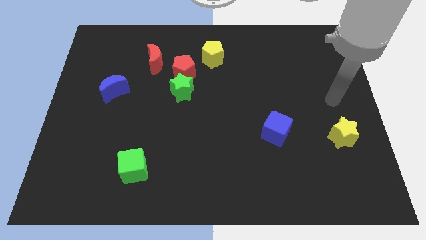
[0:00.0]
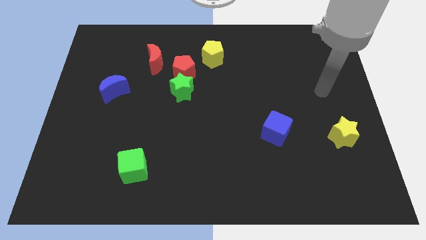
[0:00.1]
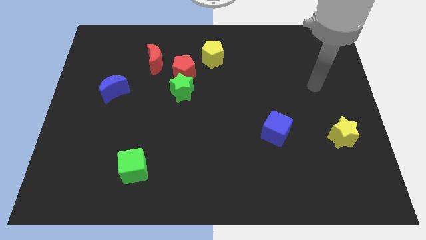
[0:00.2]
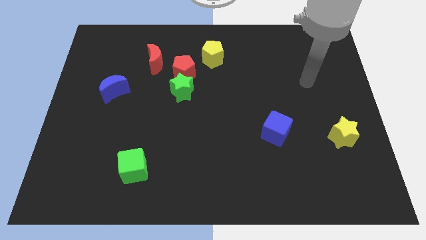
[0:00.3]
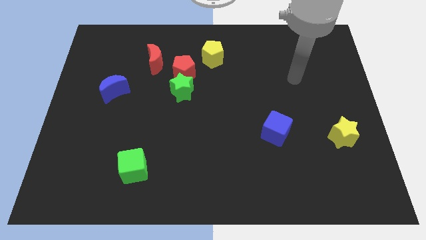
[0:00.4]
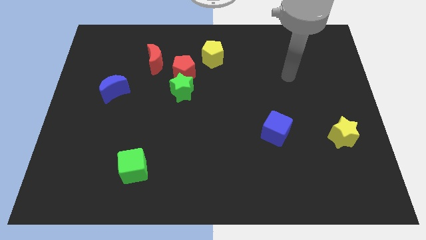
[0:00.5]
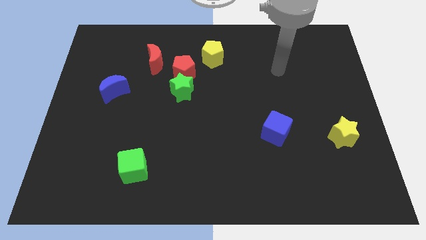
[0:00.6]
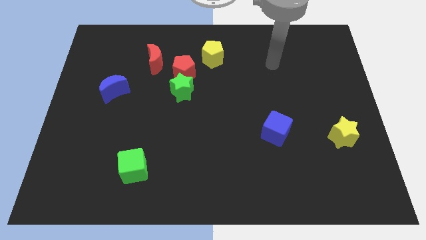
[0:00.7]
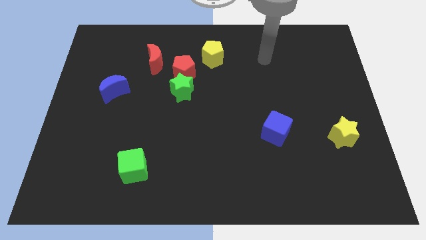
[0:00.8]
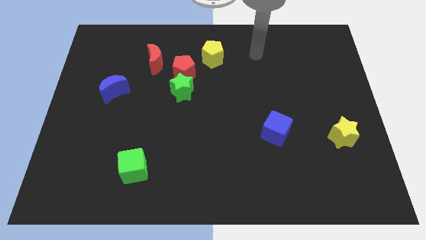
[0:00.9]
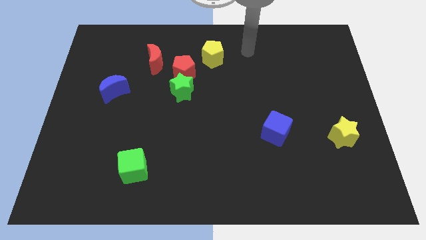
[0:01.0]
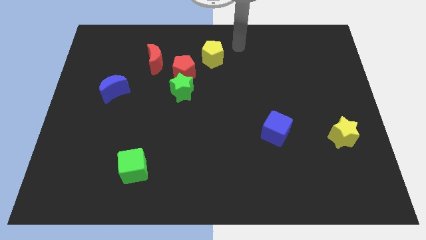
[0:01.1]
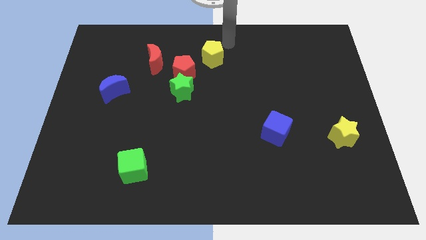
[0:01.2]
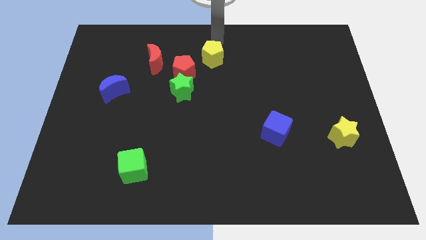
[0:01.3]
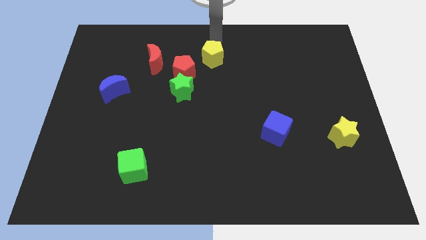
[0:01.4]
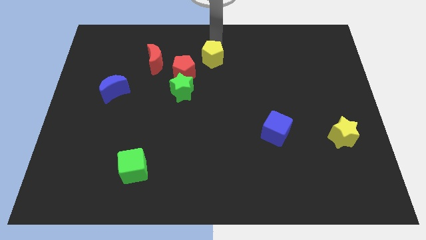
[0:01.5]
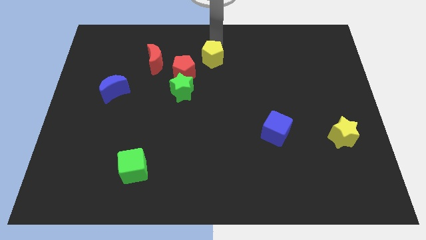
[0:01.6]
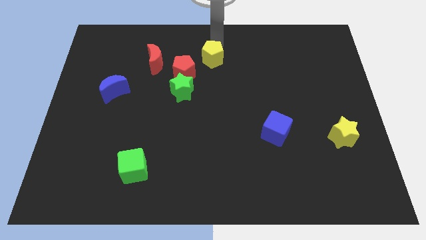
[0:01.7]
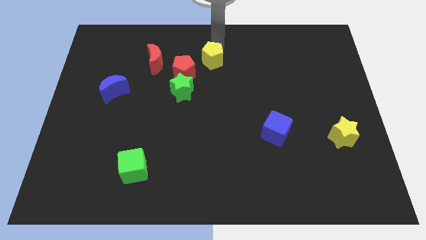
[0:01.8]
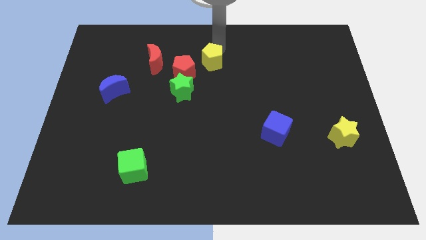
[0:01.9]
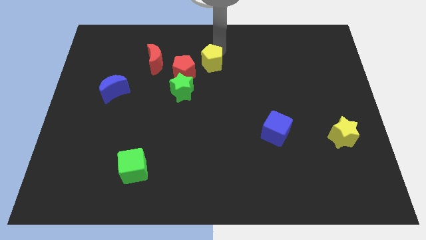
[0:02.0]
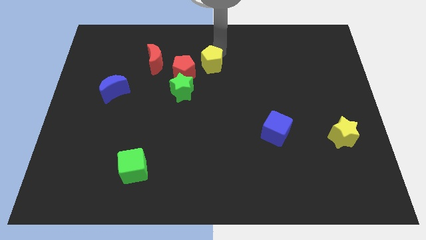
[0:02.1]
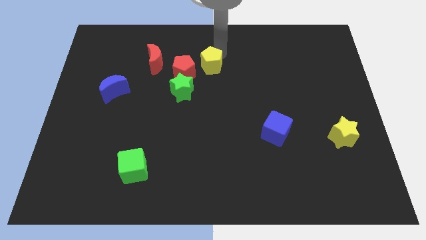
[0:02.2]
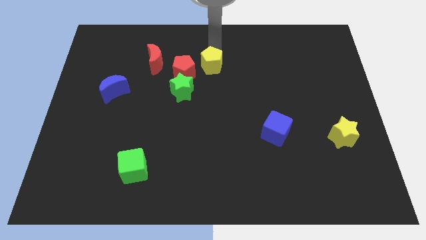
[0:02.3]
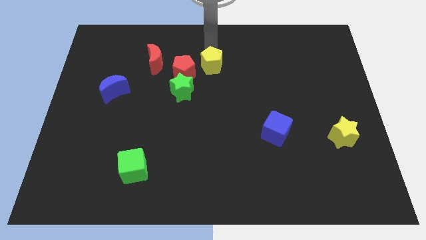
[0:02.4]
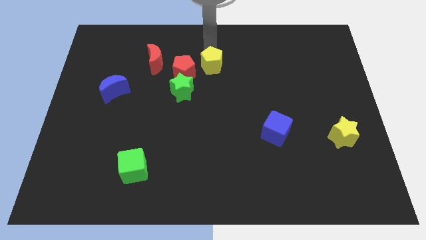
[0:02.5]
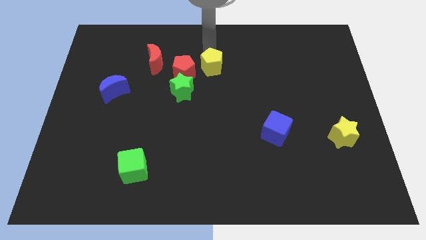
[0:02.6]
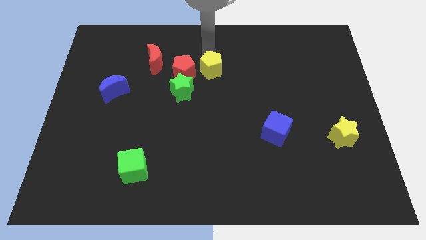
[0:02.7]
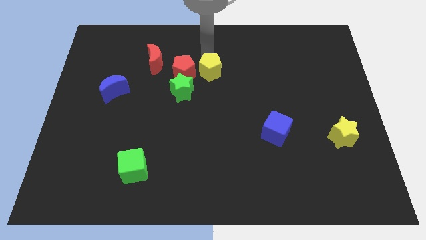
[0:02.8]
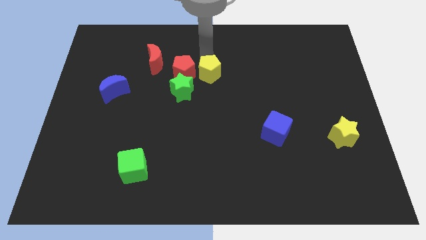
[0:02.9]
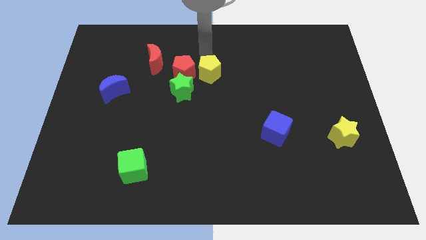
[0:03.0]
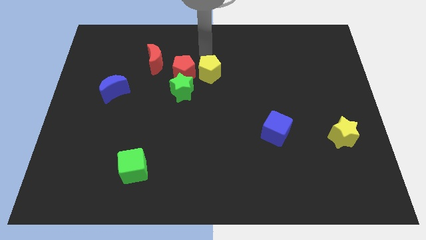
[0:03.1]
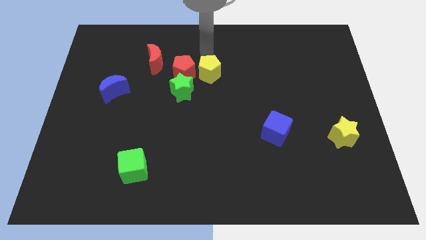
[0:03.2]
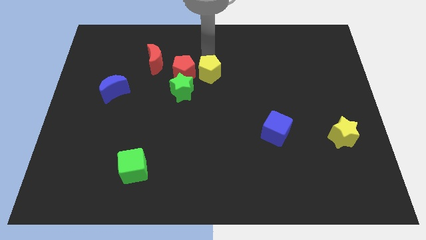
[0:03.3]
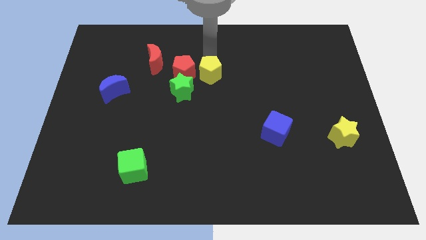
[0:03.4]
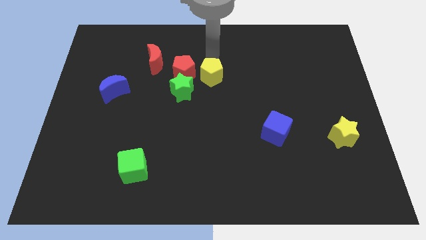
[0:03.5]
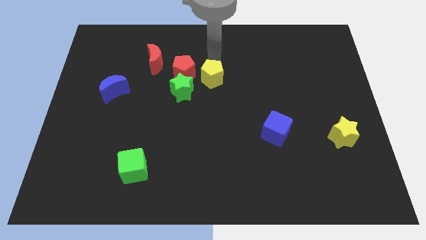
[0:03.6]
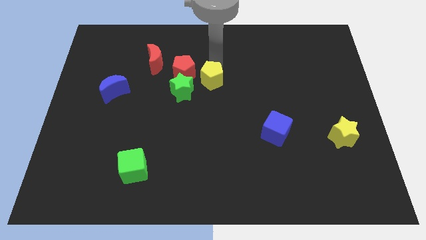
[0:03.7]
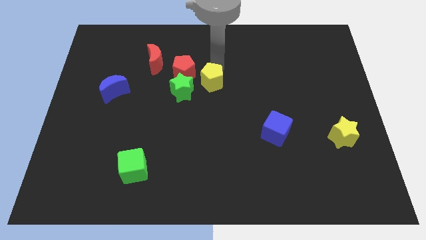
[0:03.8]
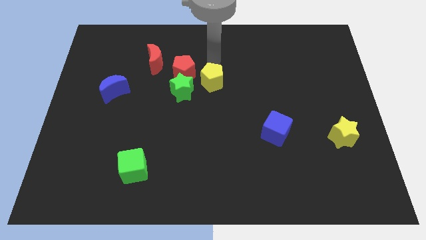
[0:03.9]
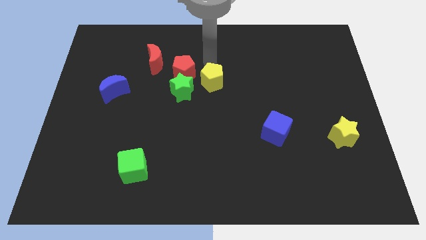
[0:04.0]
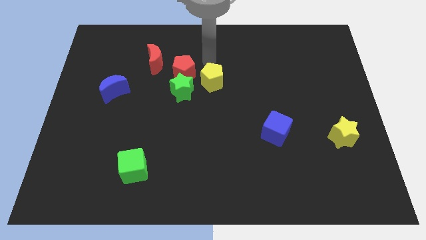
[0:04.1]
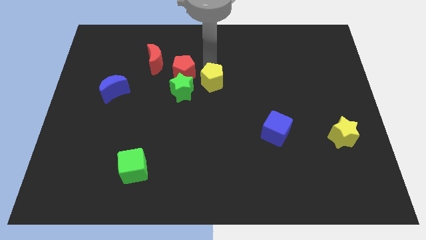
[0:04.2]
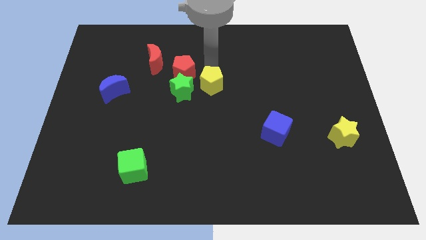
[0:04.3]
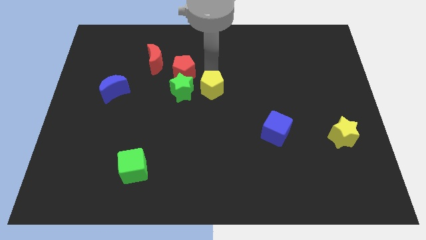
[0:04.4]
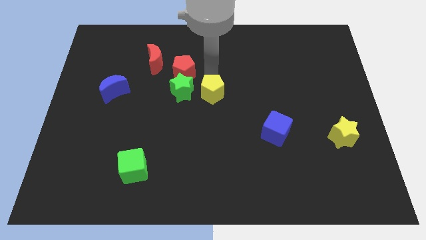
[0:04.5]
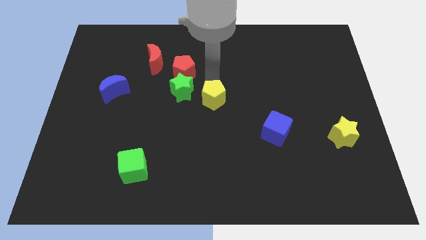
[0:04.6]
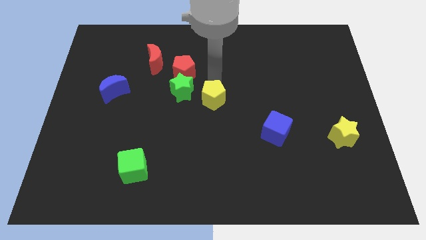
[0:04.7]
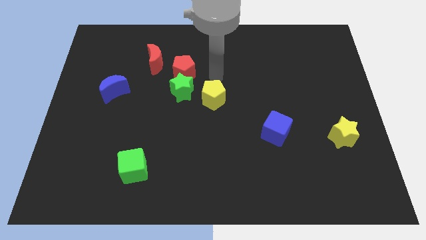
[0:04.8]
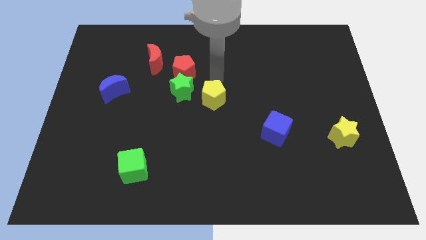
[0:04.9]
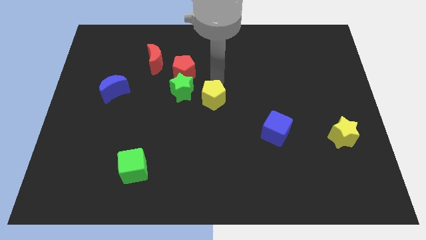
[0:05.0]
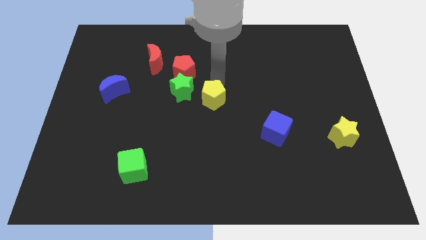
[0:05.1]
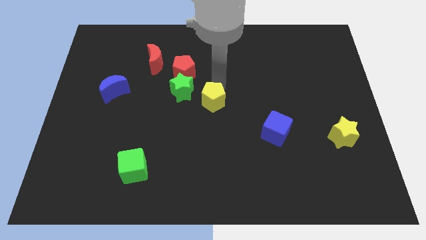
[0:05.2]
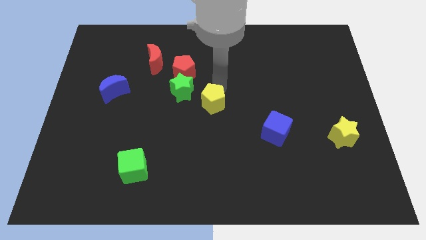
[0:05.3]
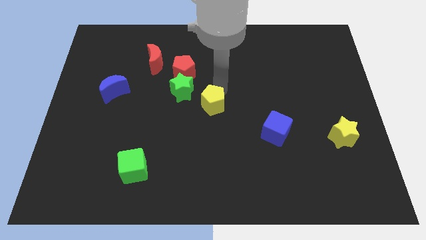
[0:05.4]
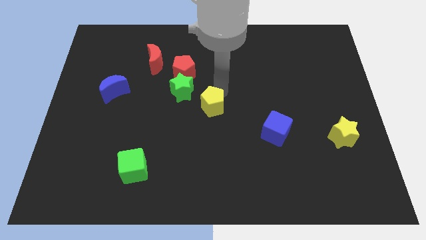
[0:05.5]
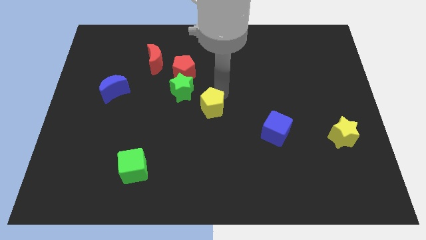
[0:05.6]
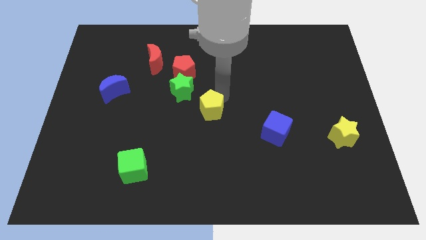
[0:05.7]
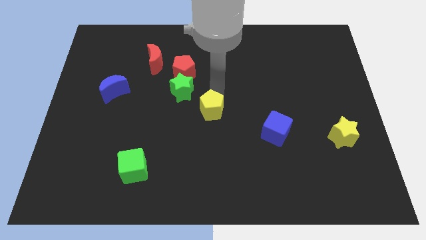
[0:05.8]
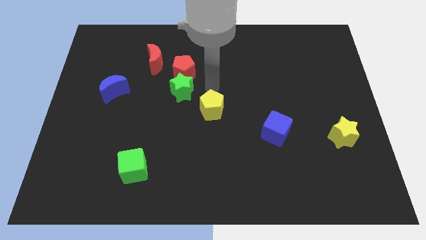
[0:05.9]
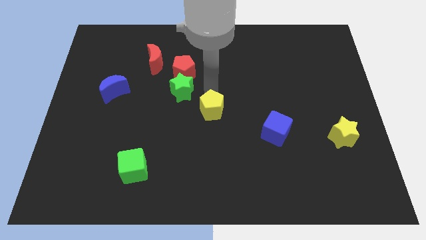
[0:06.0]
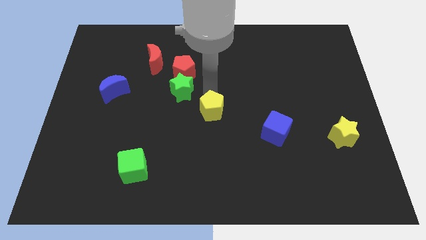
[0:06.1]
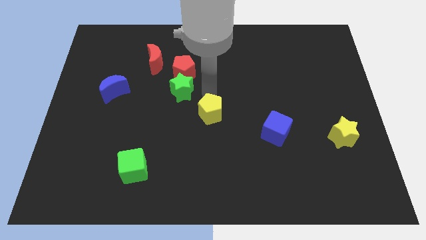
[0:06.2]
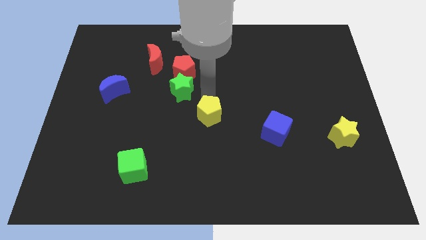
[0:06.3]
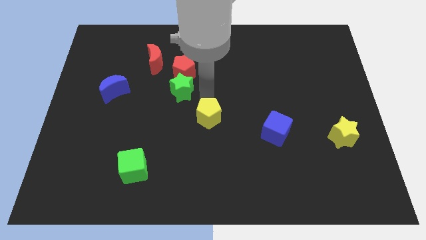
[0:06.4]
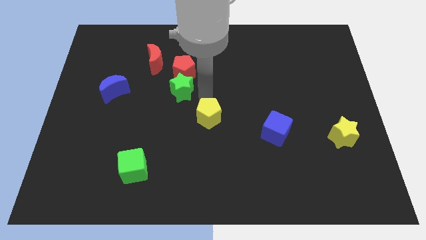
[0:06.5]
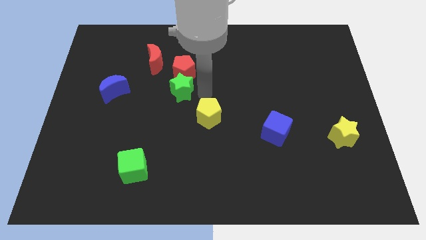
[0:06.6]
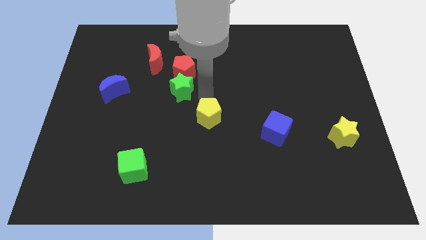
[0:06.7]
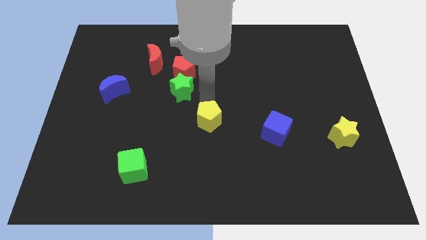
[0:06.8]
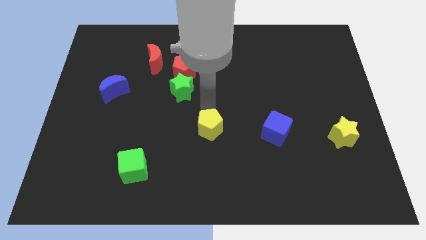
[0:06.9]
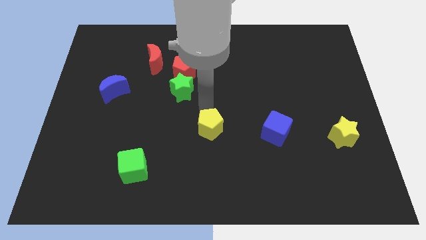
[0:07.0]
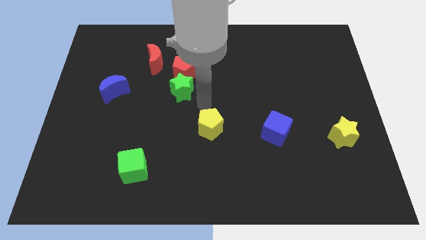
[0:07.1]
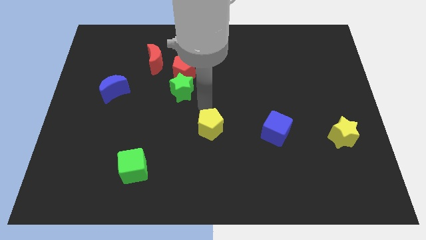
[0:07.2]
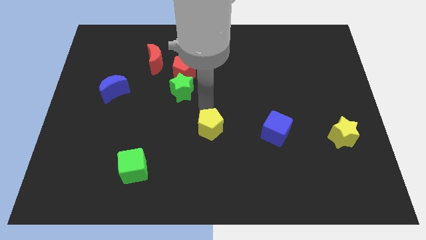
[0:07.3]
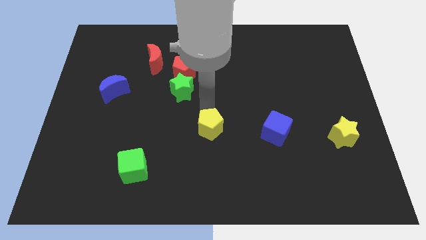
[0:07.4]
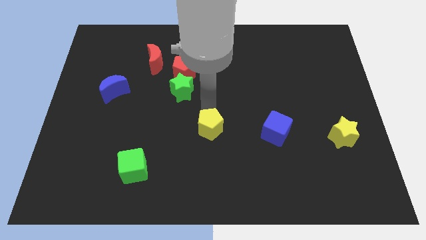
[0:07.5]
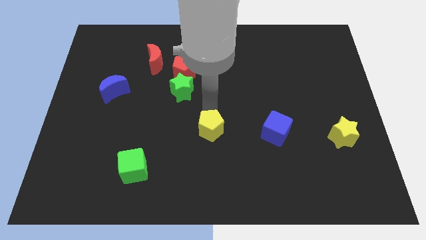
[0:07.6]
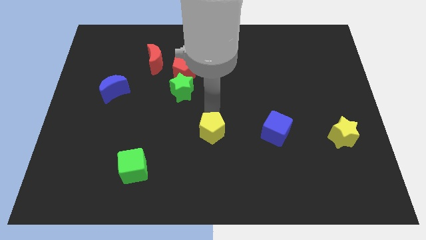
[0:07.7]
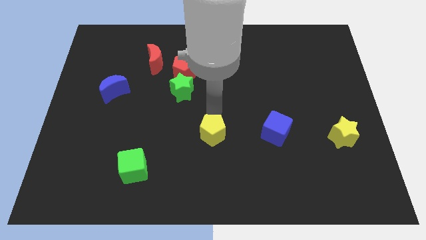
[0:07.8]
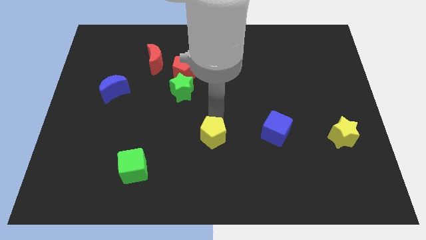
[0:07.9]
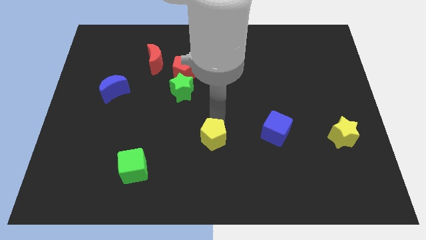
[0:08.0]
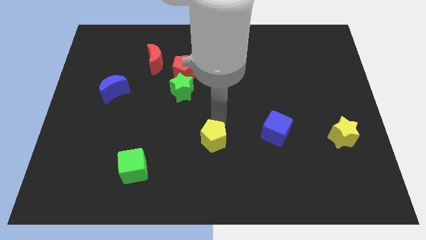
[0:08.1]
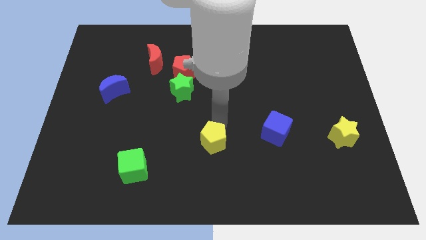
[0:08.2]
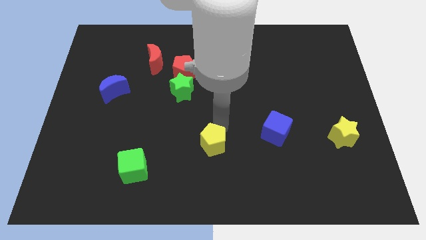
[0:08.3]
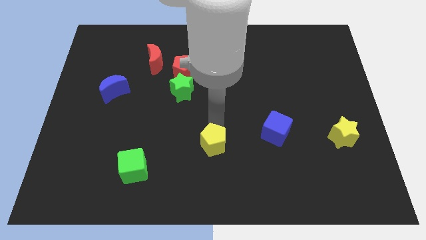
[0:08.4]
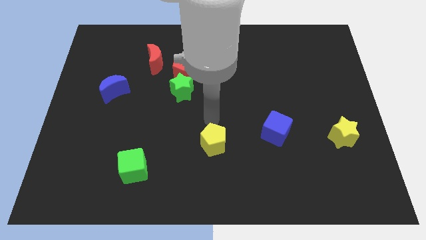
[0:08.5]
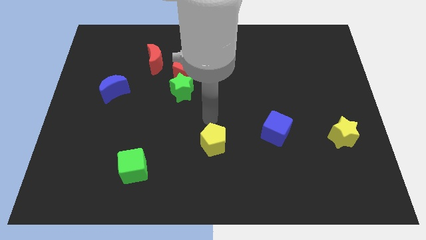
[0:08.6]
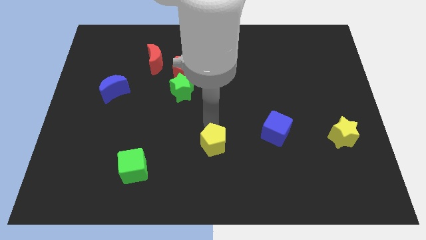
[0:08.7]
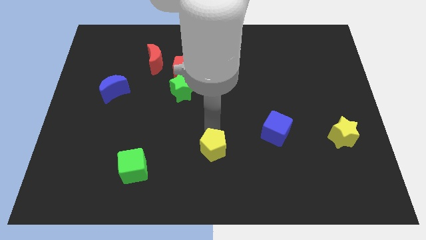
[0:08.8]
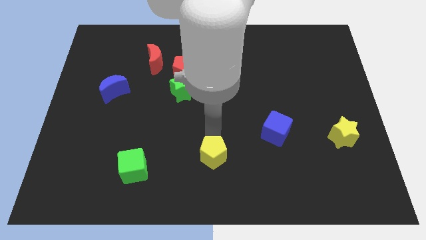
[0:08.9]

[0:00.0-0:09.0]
push the yellow pentagon to the bottom side
